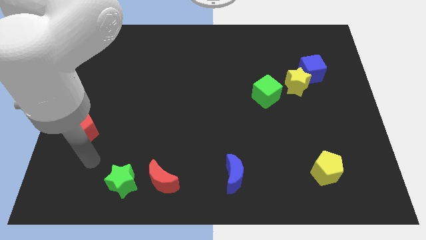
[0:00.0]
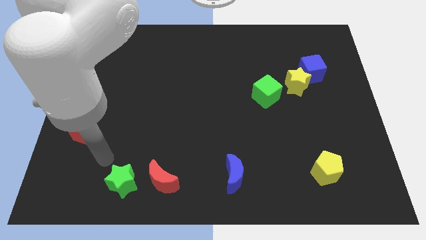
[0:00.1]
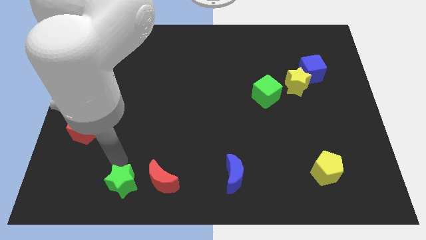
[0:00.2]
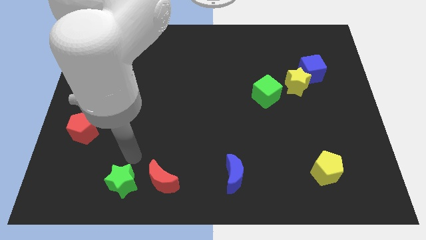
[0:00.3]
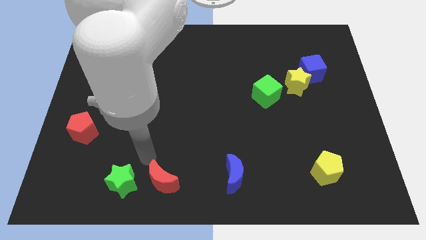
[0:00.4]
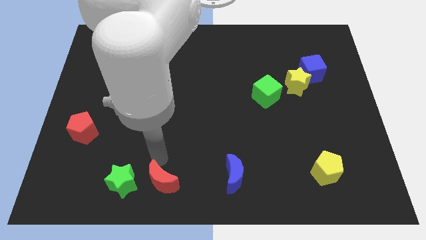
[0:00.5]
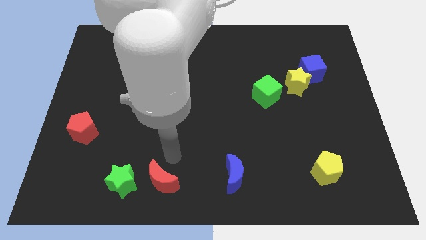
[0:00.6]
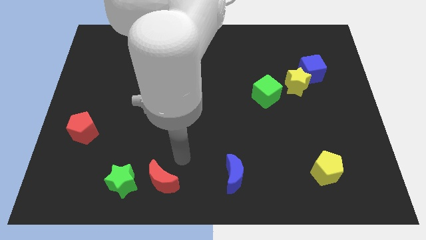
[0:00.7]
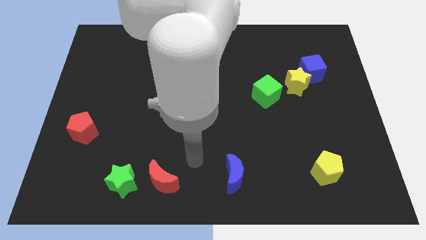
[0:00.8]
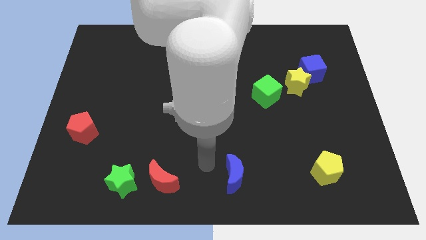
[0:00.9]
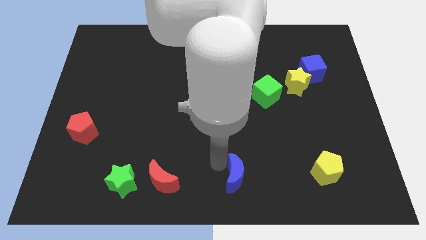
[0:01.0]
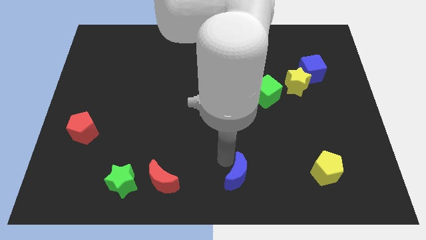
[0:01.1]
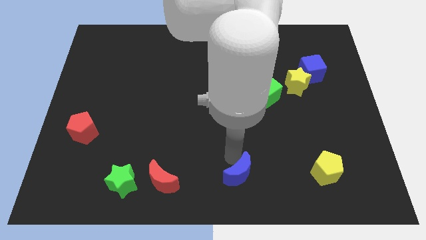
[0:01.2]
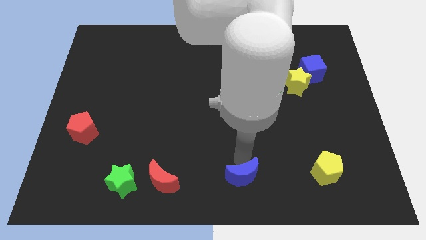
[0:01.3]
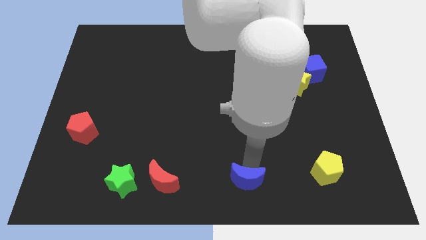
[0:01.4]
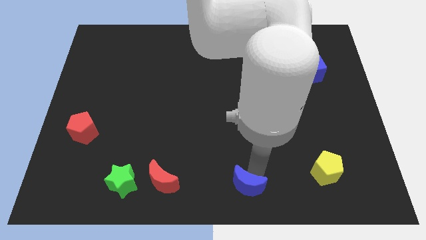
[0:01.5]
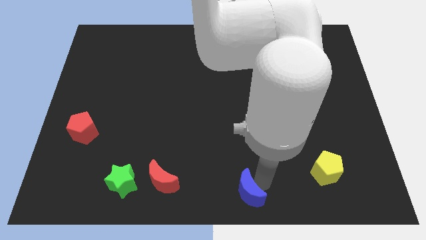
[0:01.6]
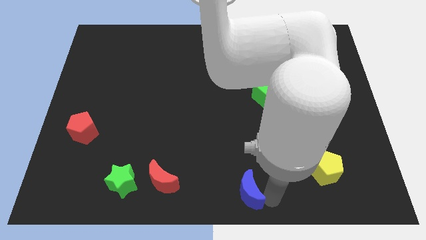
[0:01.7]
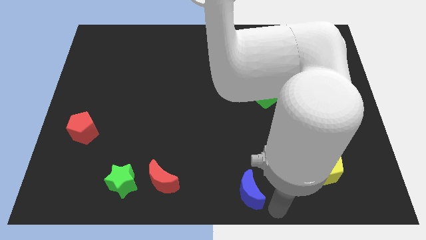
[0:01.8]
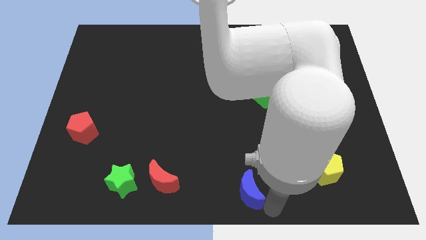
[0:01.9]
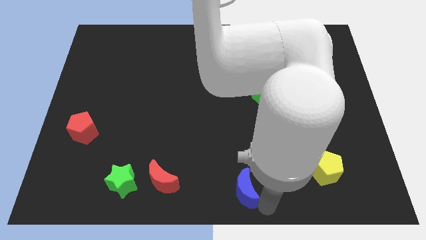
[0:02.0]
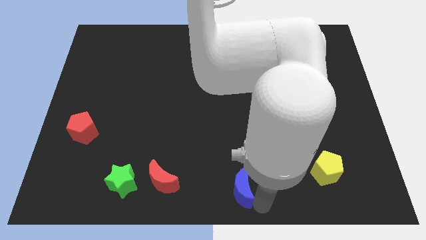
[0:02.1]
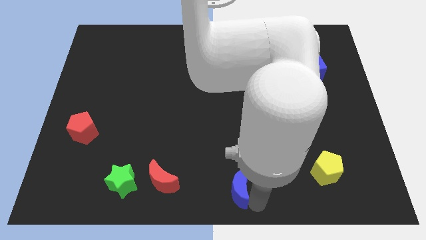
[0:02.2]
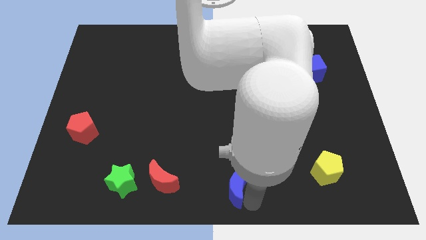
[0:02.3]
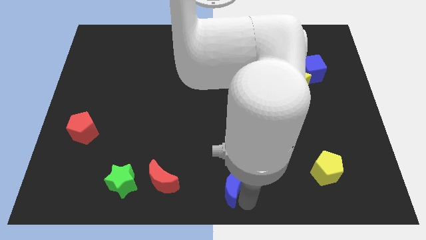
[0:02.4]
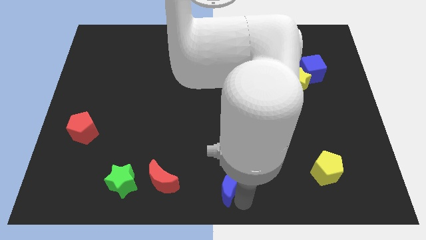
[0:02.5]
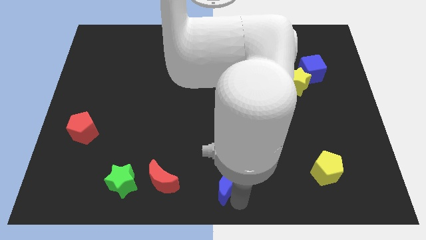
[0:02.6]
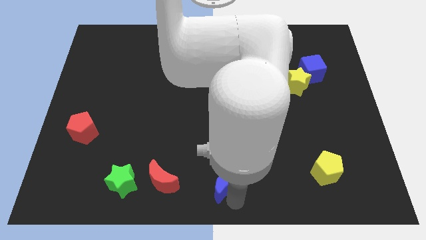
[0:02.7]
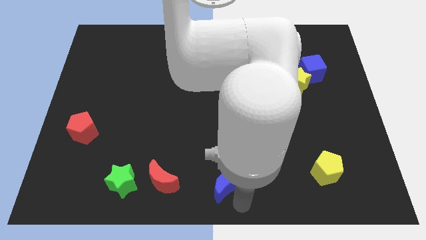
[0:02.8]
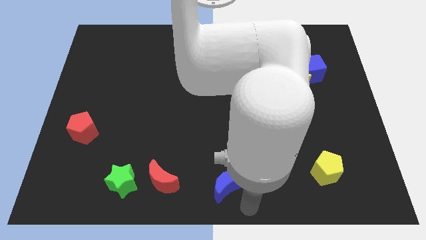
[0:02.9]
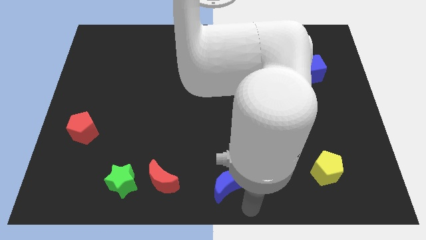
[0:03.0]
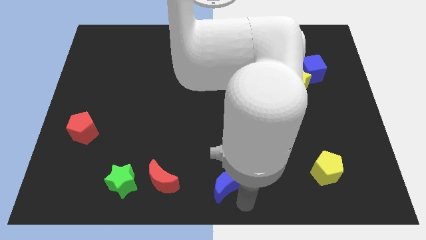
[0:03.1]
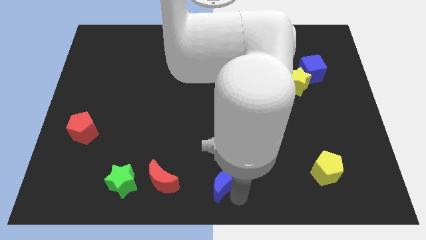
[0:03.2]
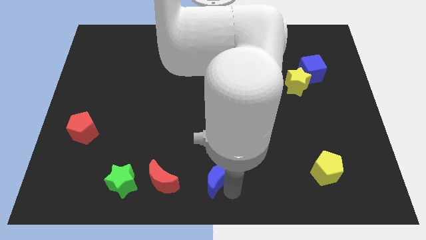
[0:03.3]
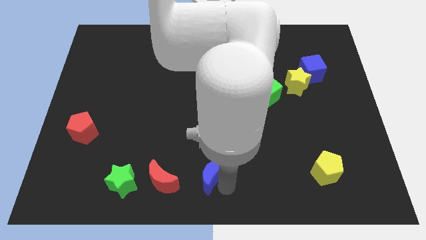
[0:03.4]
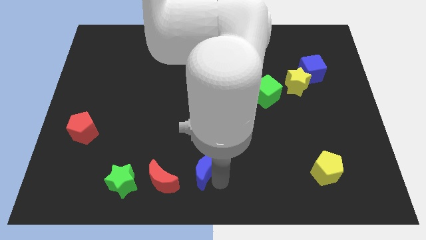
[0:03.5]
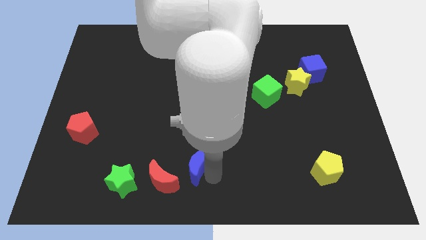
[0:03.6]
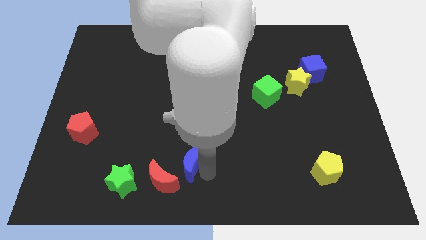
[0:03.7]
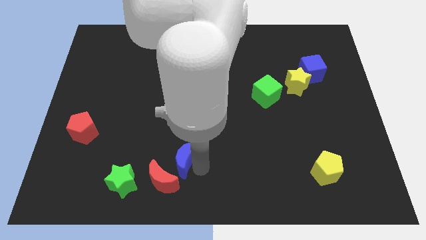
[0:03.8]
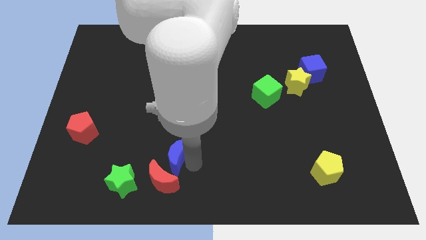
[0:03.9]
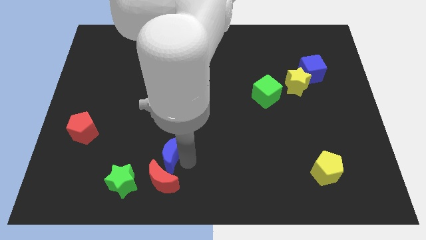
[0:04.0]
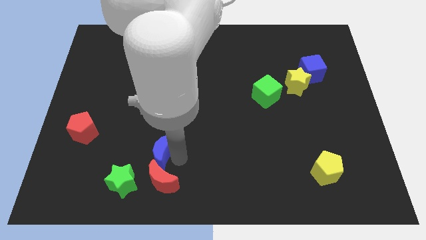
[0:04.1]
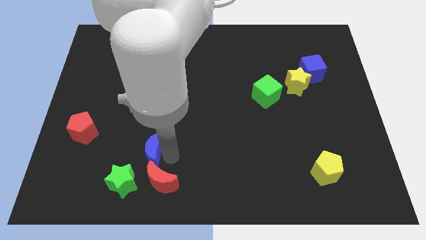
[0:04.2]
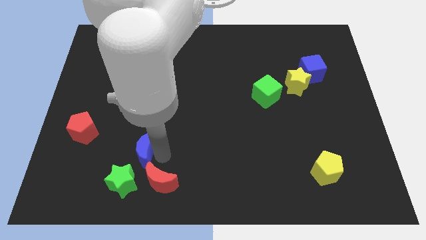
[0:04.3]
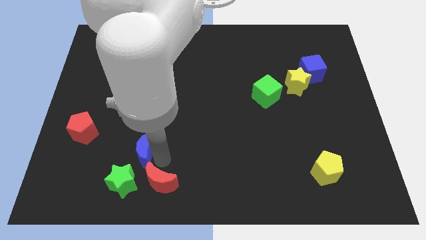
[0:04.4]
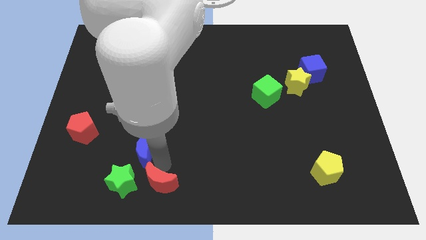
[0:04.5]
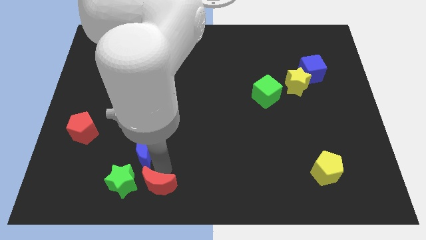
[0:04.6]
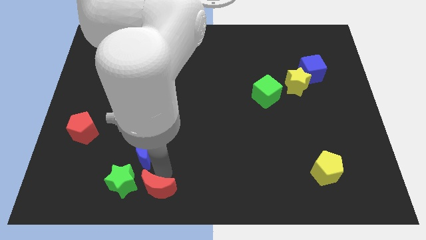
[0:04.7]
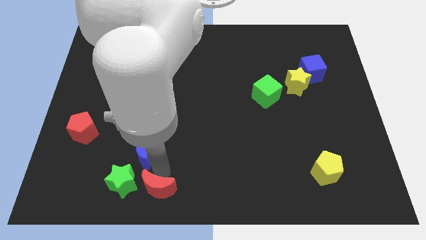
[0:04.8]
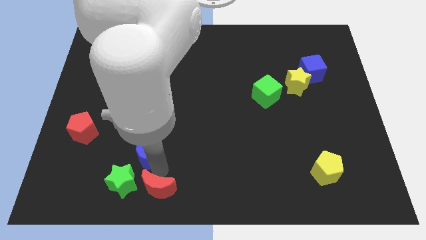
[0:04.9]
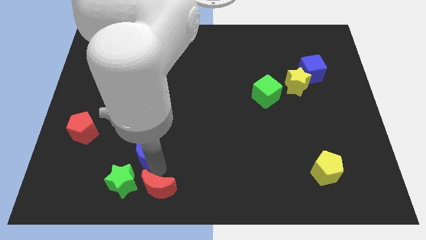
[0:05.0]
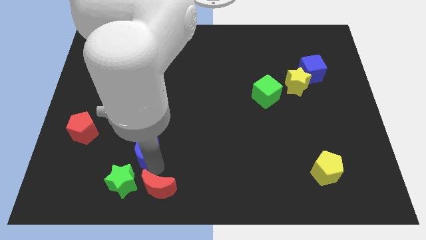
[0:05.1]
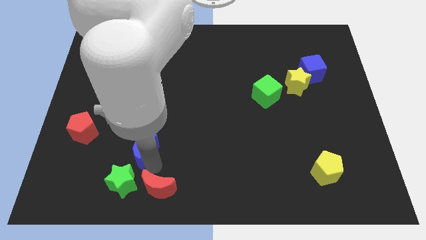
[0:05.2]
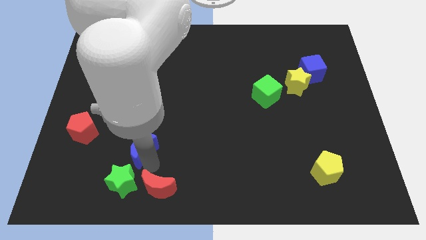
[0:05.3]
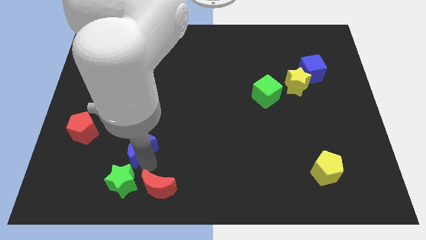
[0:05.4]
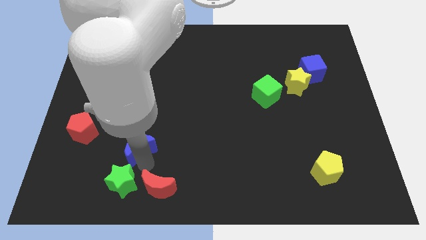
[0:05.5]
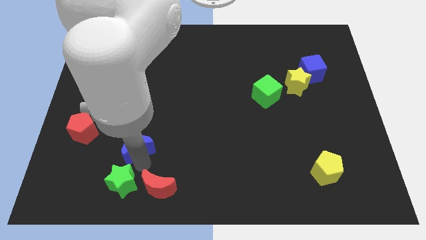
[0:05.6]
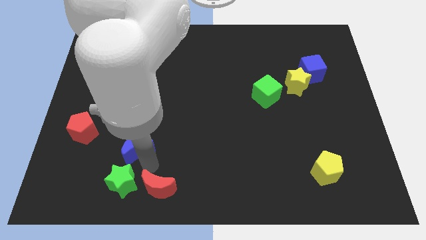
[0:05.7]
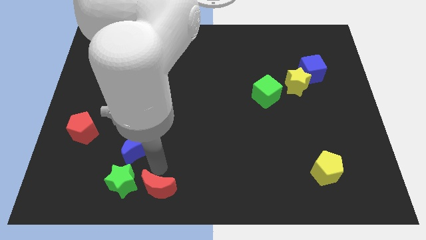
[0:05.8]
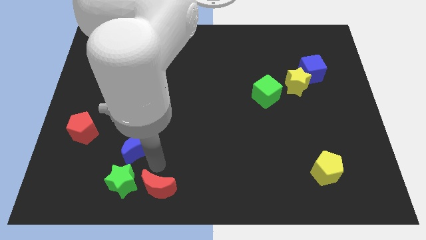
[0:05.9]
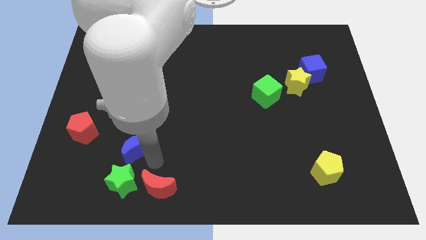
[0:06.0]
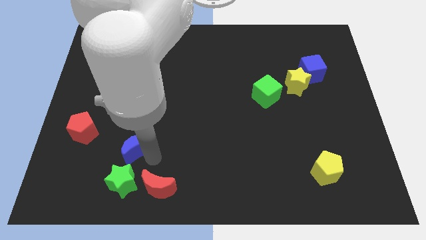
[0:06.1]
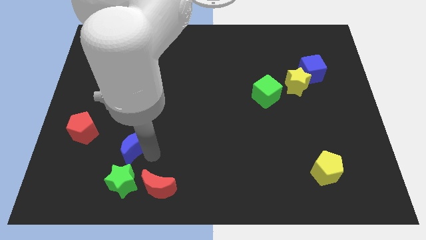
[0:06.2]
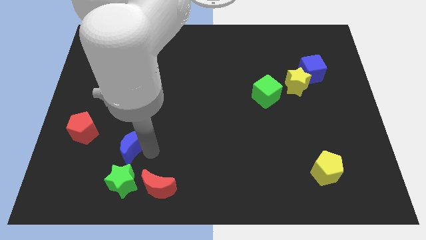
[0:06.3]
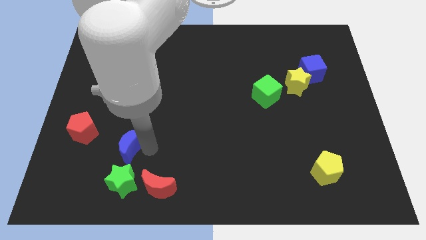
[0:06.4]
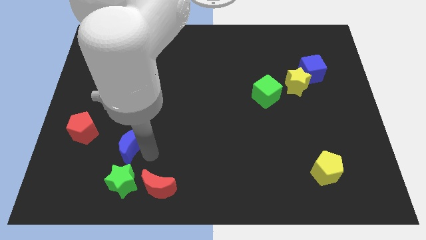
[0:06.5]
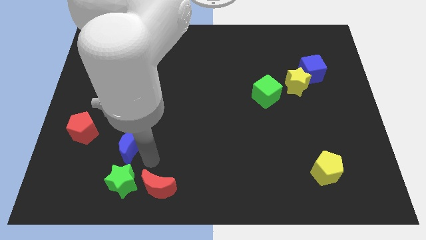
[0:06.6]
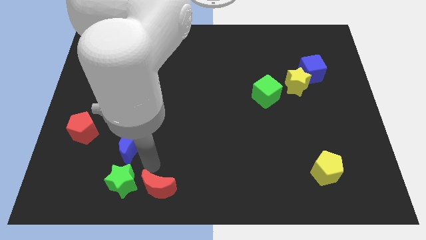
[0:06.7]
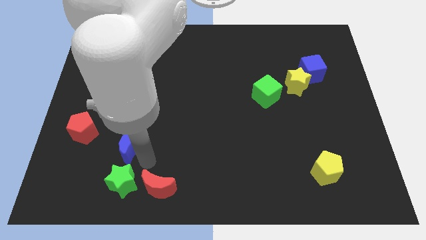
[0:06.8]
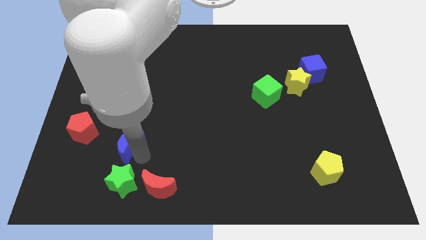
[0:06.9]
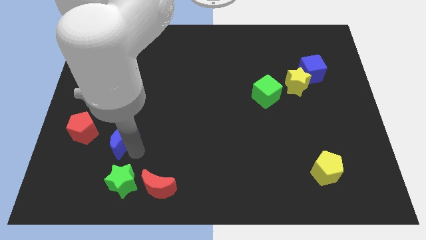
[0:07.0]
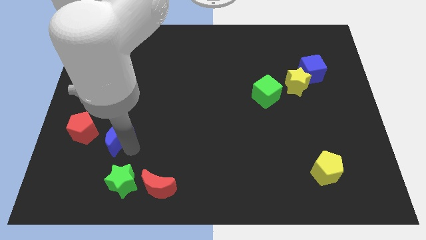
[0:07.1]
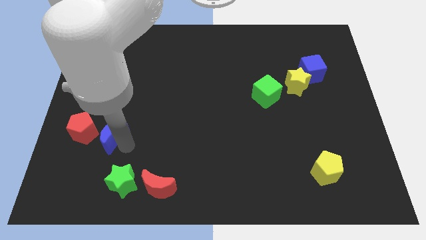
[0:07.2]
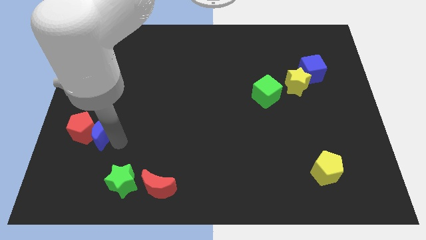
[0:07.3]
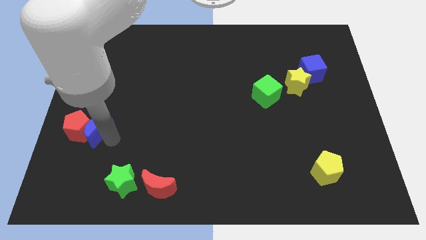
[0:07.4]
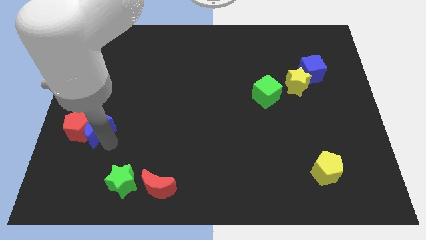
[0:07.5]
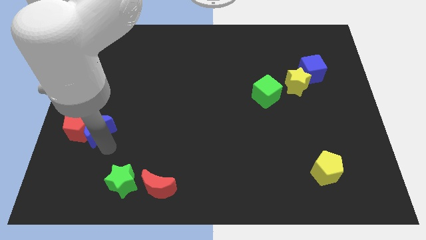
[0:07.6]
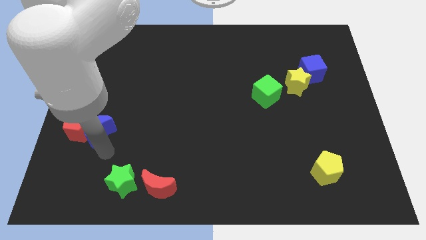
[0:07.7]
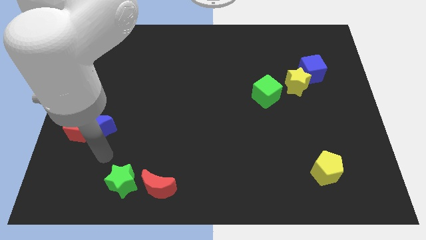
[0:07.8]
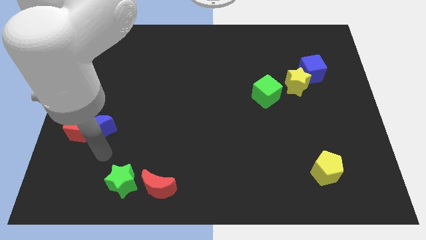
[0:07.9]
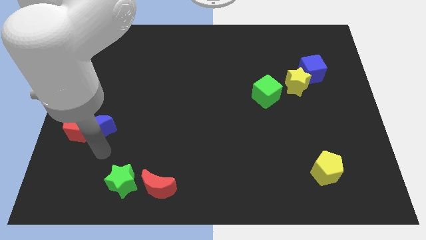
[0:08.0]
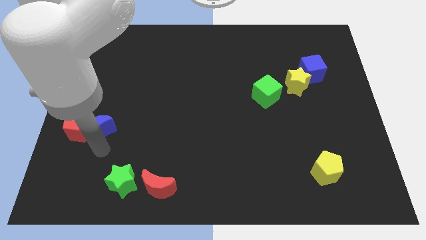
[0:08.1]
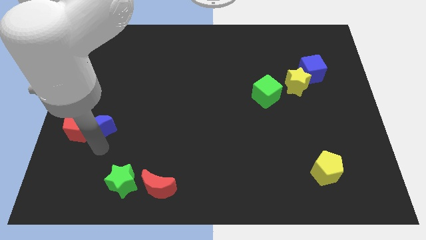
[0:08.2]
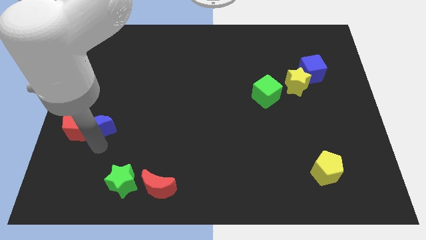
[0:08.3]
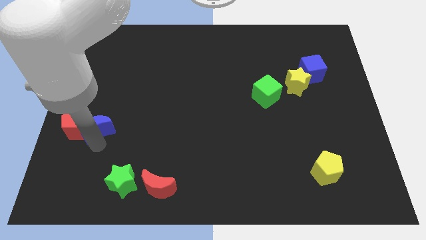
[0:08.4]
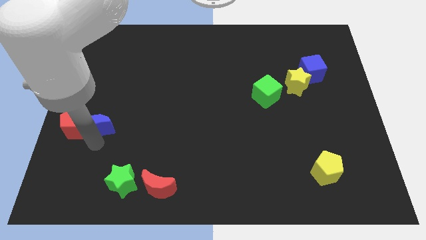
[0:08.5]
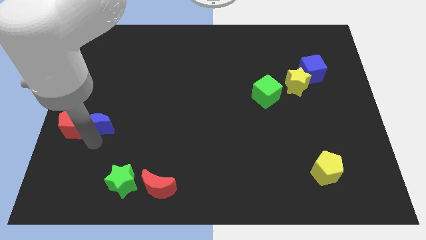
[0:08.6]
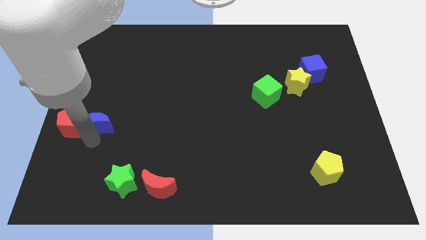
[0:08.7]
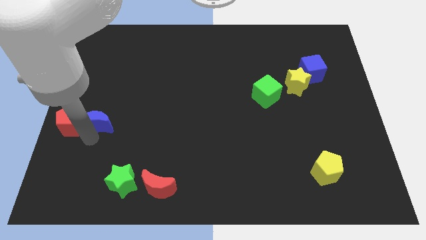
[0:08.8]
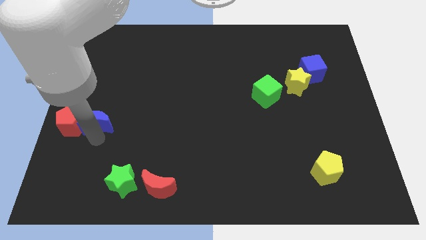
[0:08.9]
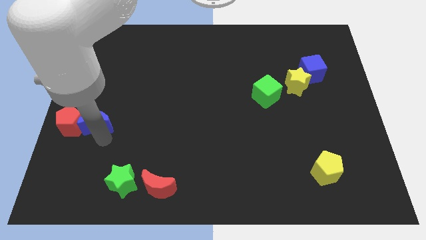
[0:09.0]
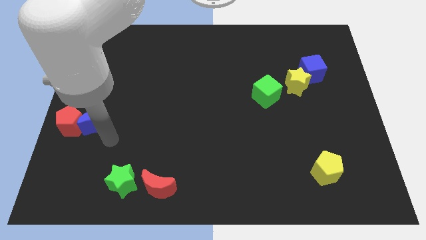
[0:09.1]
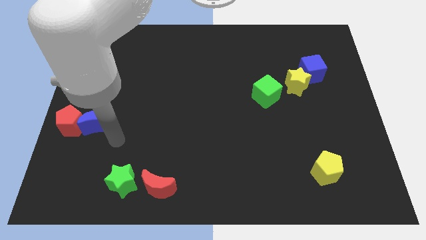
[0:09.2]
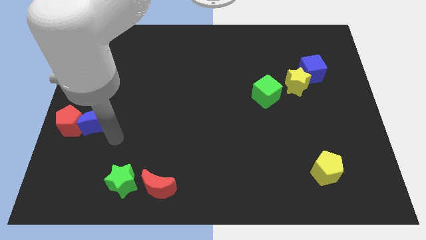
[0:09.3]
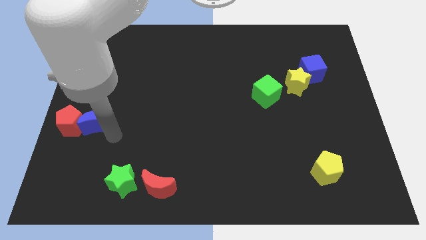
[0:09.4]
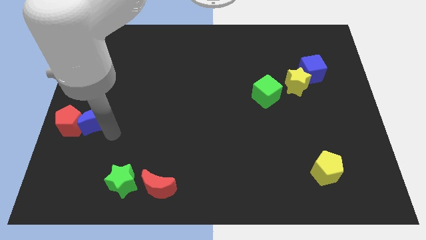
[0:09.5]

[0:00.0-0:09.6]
slide the blue moon to the left side
